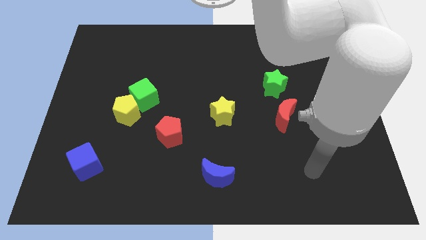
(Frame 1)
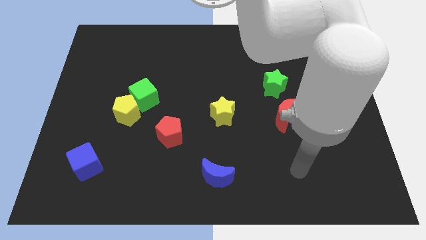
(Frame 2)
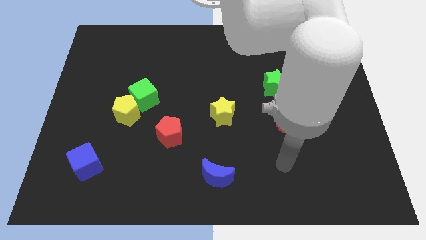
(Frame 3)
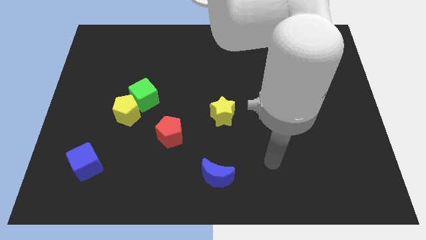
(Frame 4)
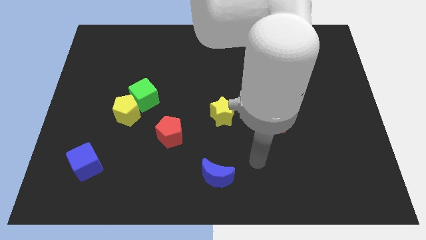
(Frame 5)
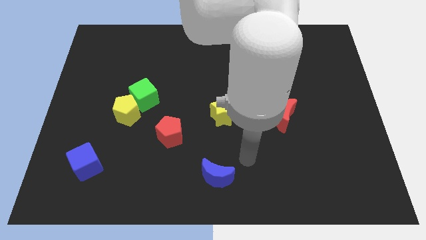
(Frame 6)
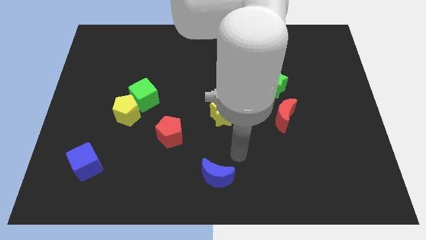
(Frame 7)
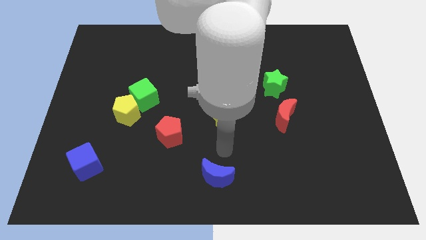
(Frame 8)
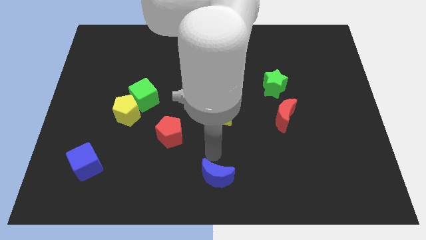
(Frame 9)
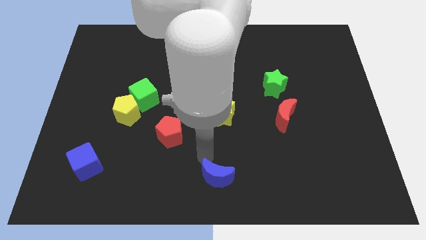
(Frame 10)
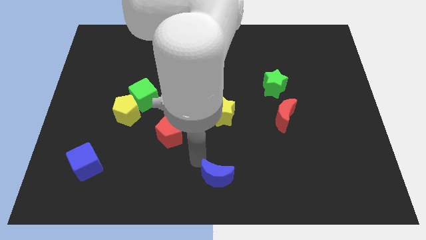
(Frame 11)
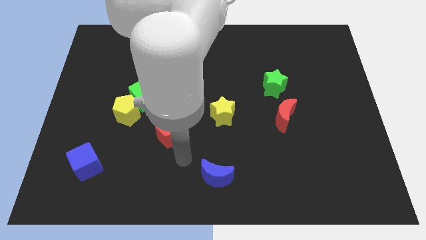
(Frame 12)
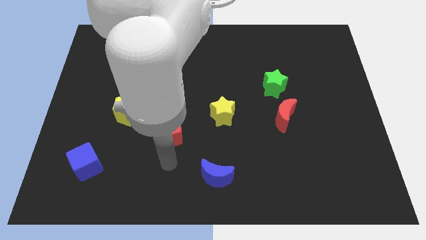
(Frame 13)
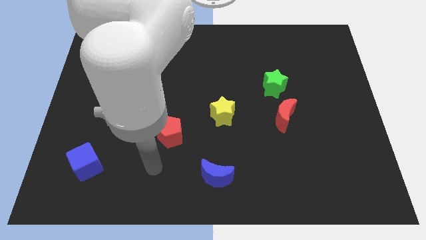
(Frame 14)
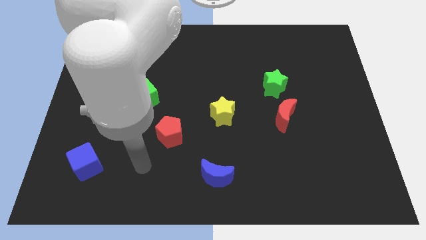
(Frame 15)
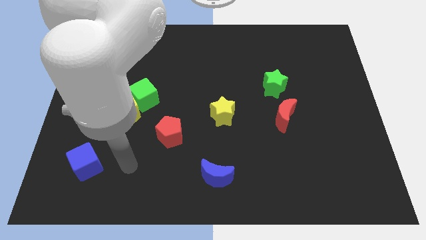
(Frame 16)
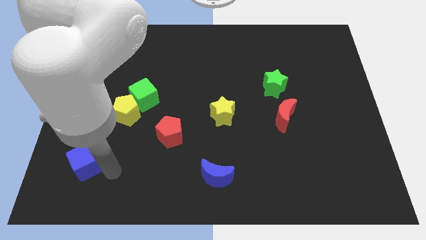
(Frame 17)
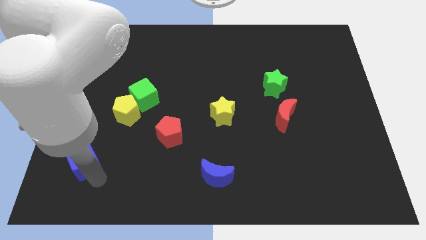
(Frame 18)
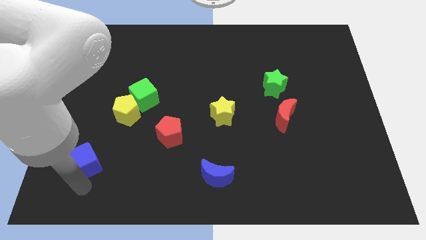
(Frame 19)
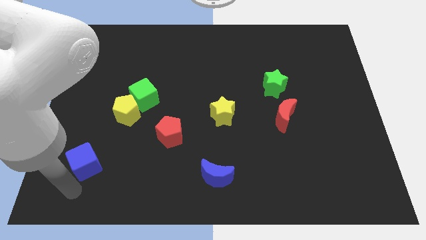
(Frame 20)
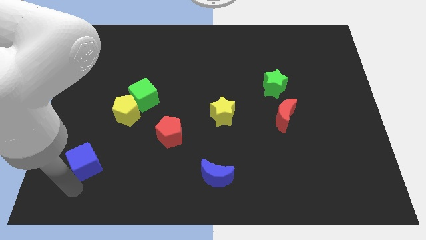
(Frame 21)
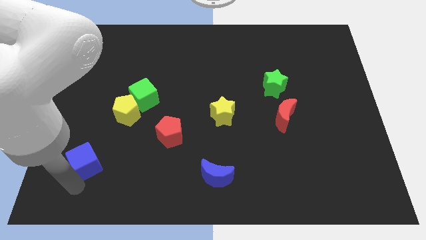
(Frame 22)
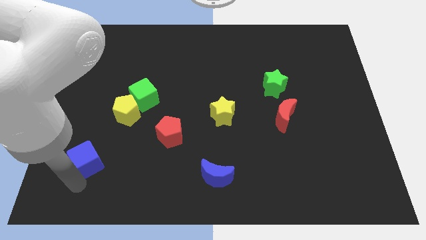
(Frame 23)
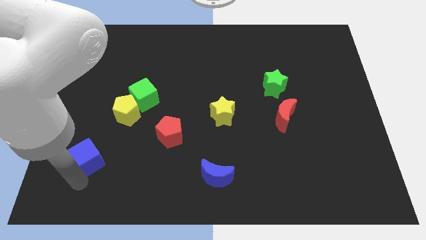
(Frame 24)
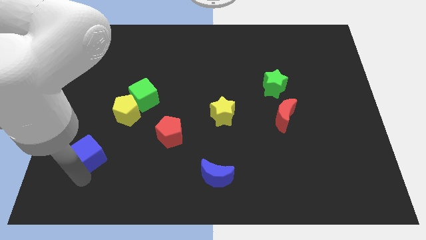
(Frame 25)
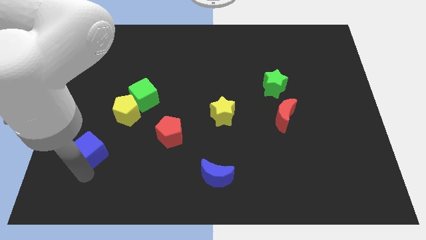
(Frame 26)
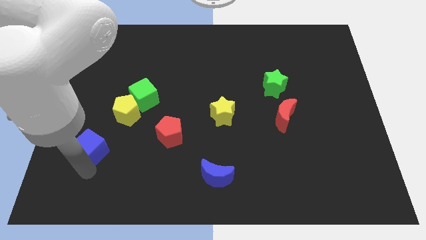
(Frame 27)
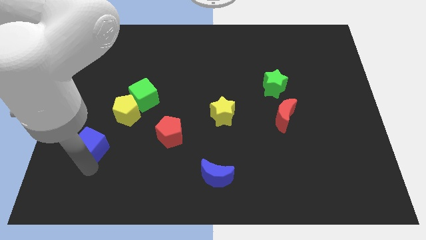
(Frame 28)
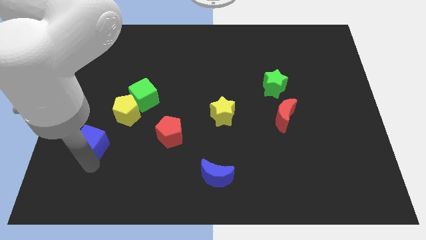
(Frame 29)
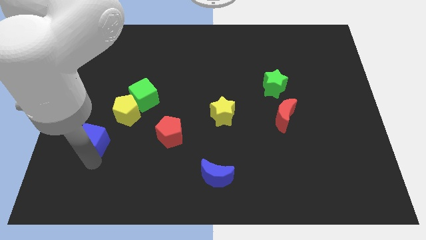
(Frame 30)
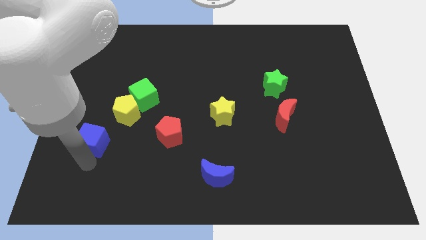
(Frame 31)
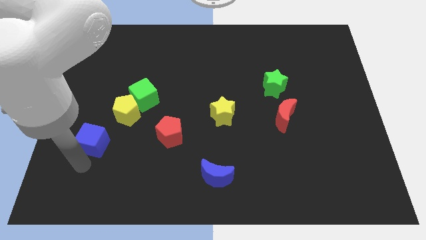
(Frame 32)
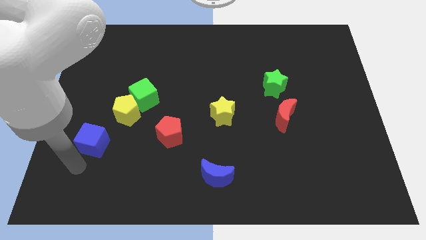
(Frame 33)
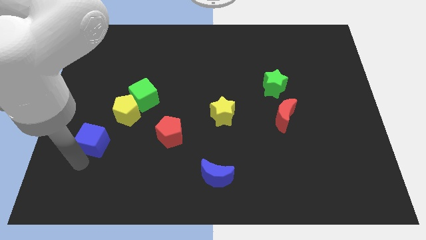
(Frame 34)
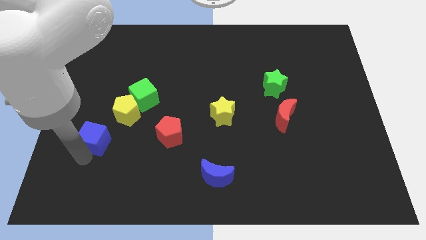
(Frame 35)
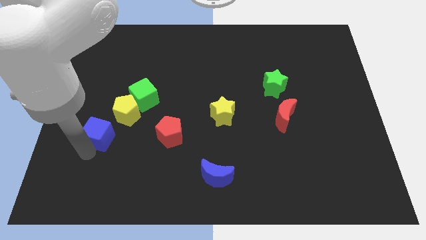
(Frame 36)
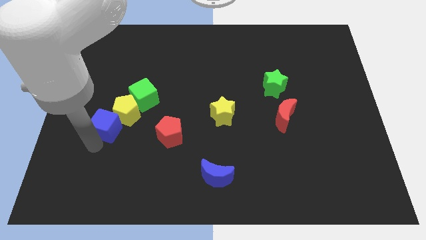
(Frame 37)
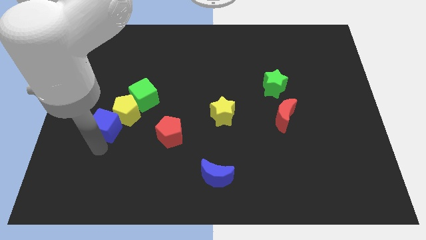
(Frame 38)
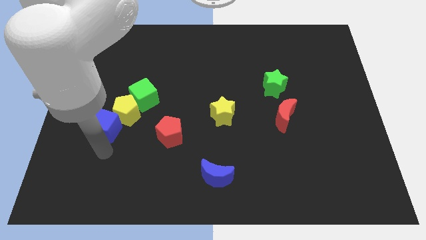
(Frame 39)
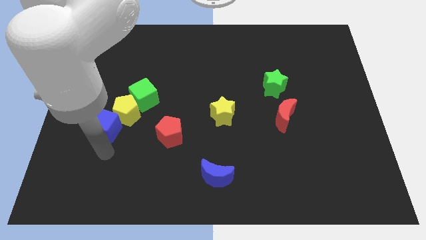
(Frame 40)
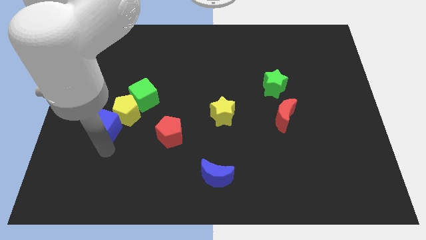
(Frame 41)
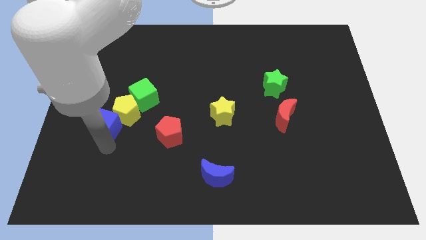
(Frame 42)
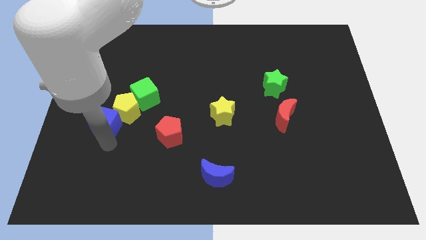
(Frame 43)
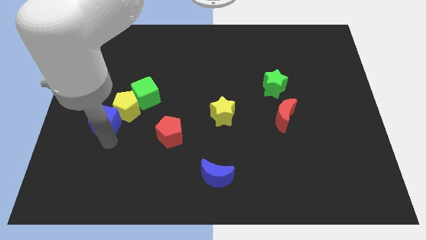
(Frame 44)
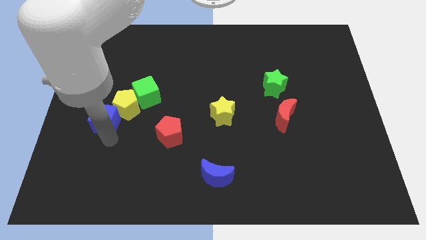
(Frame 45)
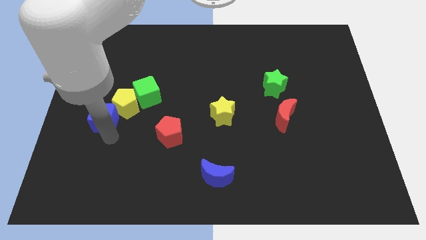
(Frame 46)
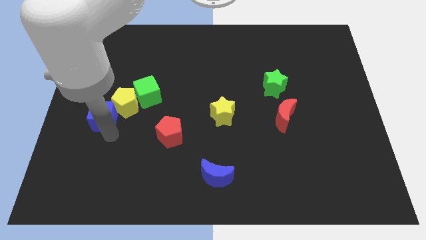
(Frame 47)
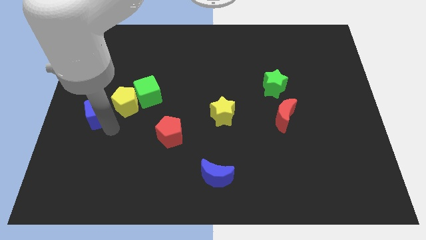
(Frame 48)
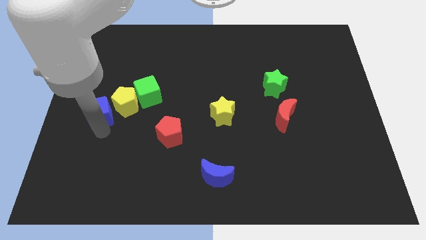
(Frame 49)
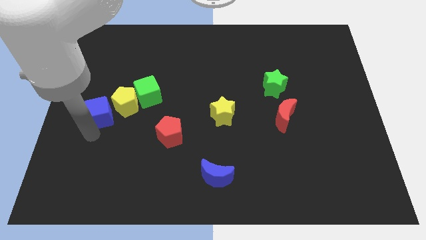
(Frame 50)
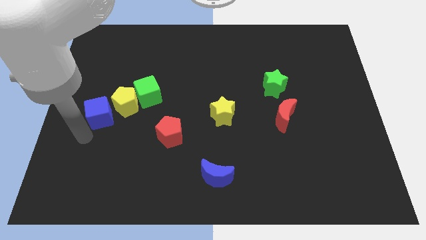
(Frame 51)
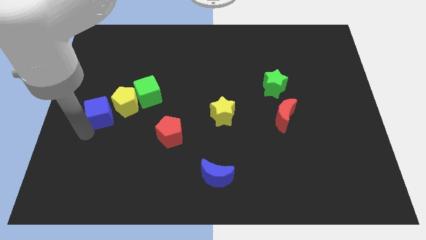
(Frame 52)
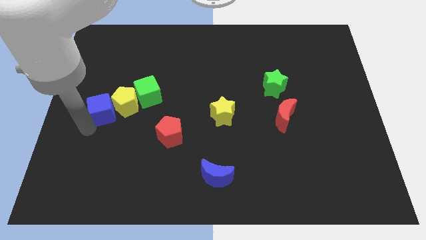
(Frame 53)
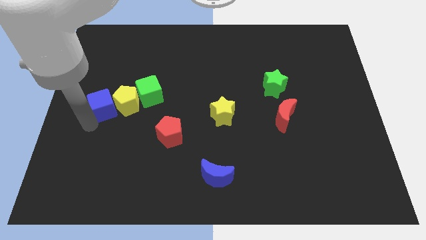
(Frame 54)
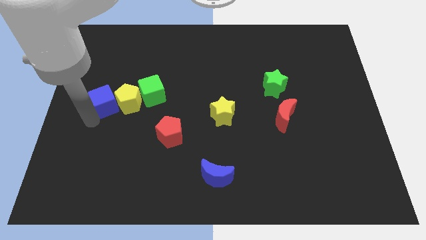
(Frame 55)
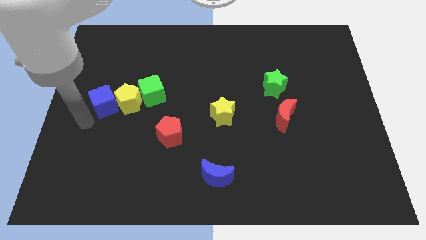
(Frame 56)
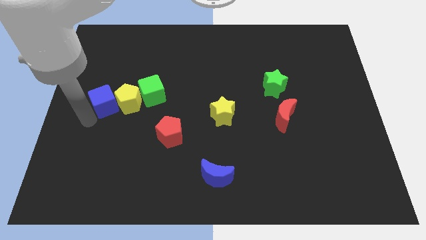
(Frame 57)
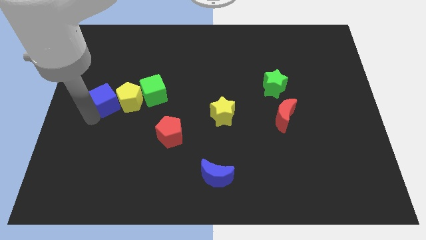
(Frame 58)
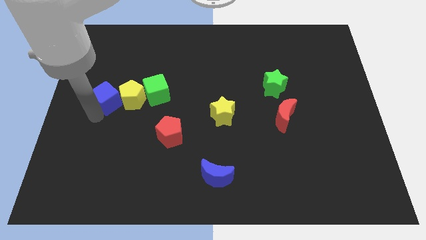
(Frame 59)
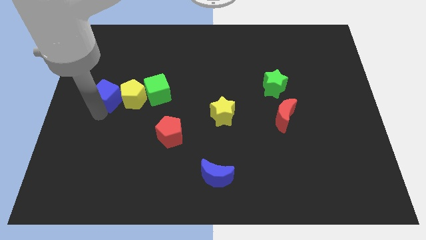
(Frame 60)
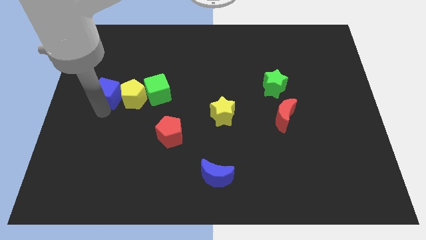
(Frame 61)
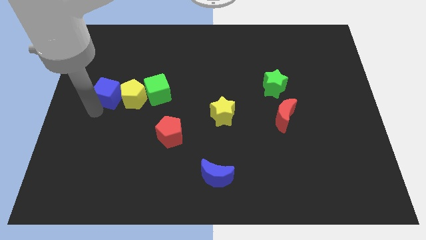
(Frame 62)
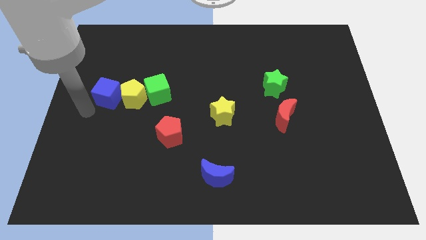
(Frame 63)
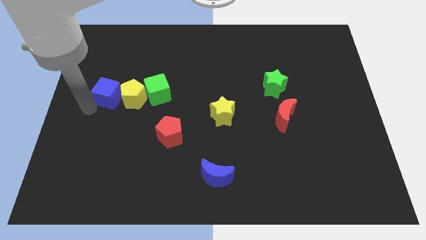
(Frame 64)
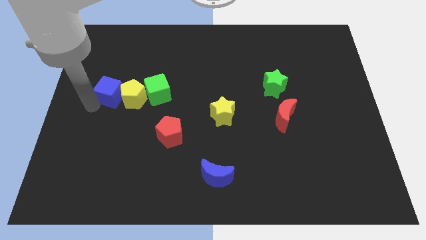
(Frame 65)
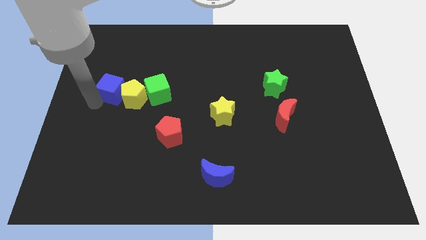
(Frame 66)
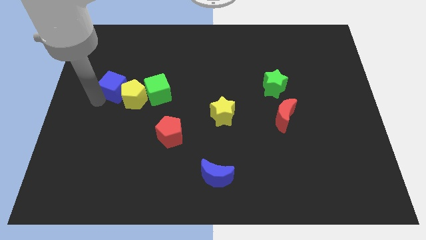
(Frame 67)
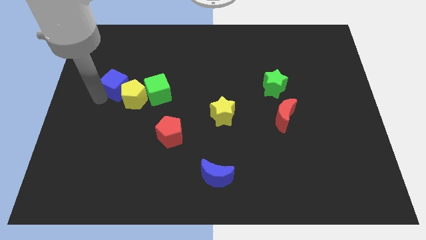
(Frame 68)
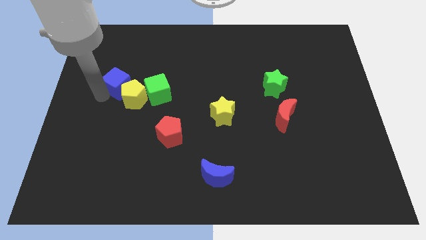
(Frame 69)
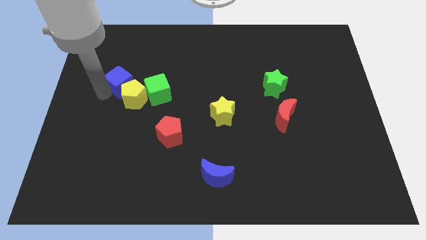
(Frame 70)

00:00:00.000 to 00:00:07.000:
push the blue cube to the top left side of the green cube
